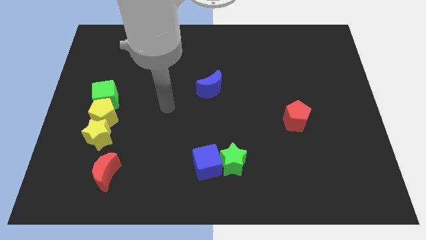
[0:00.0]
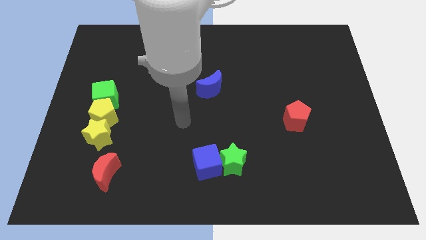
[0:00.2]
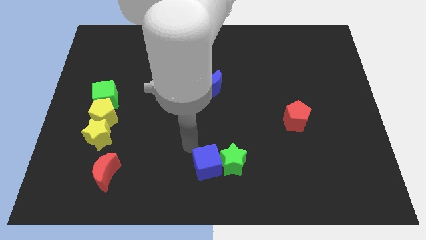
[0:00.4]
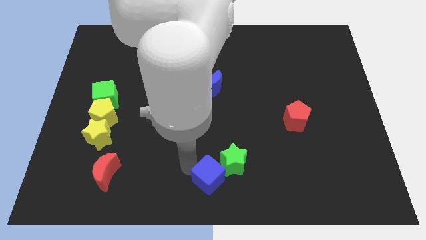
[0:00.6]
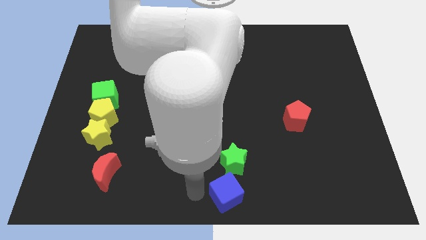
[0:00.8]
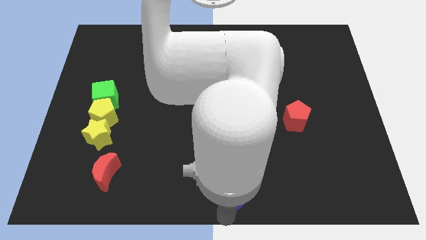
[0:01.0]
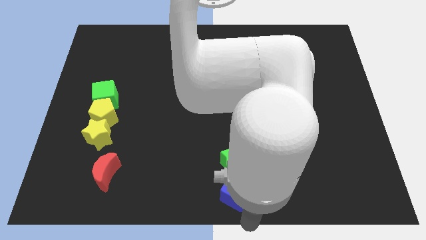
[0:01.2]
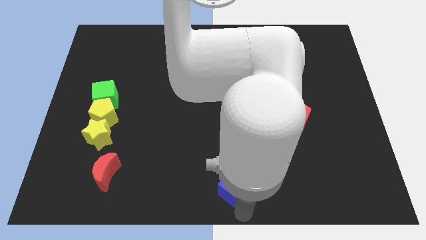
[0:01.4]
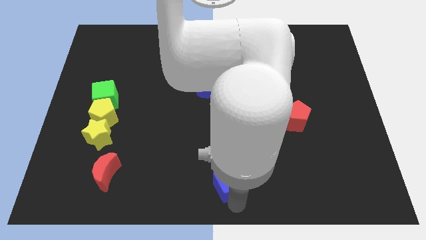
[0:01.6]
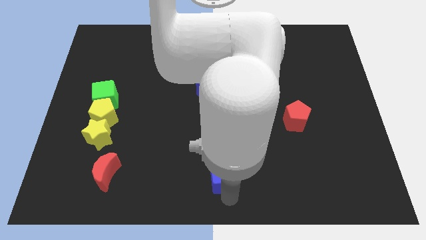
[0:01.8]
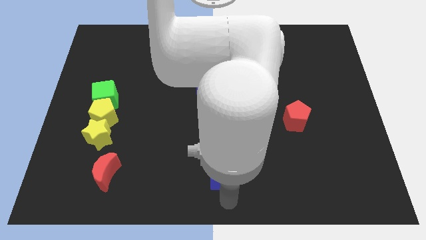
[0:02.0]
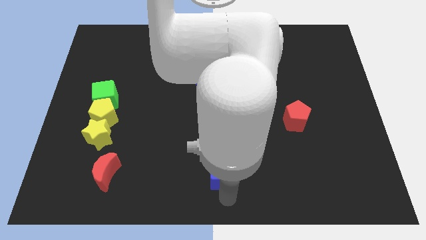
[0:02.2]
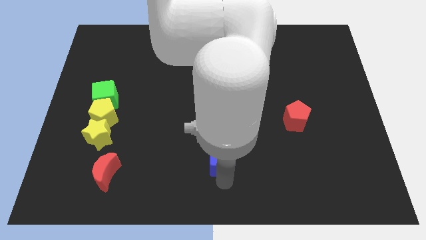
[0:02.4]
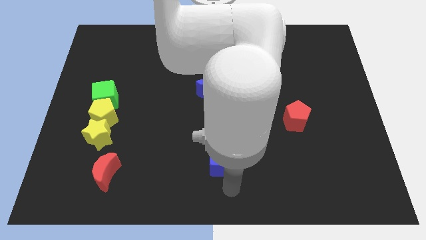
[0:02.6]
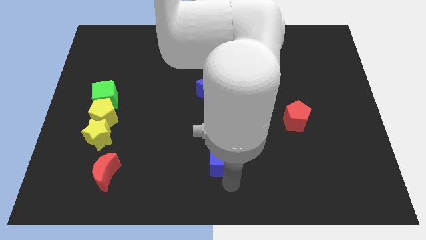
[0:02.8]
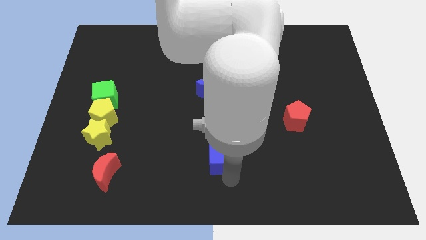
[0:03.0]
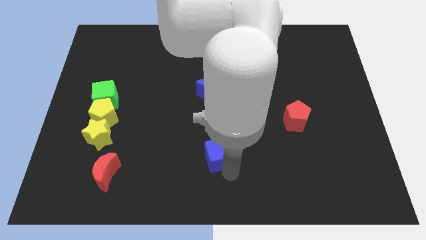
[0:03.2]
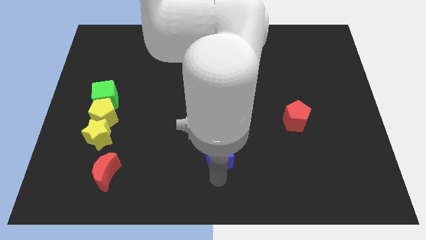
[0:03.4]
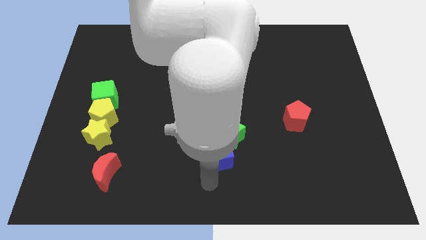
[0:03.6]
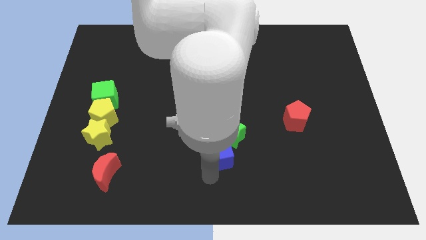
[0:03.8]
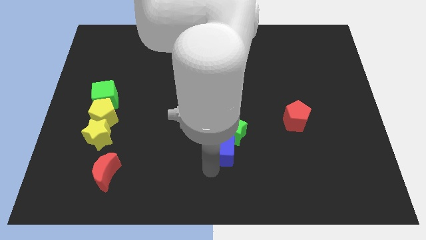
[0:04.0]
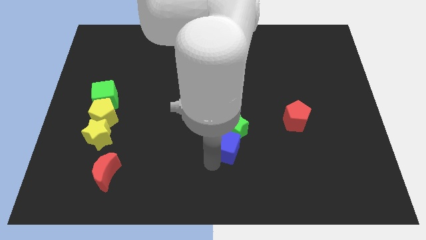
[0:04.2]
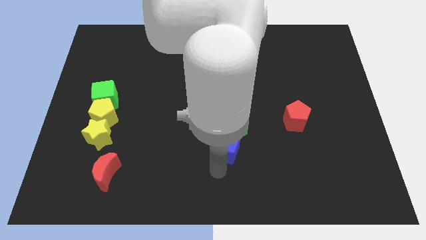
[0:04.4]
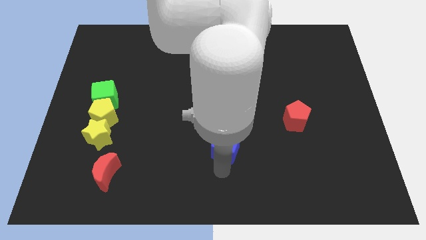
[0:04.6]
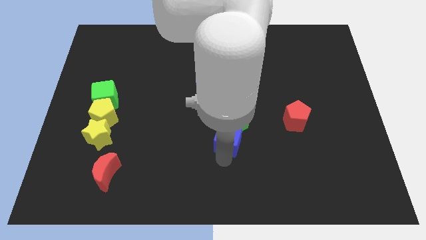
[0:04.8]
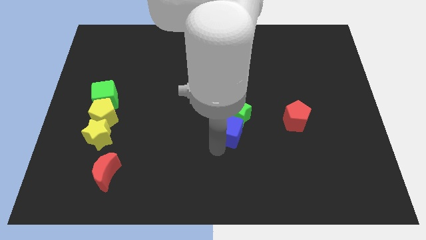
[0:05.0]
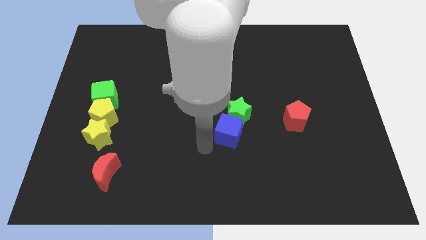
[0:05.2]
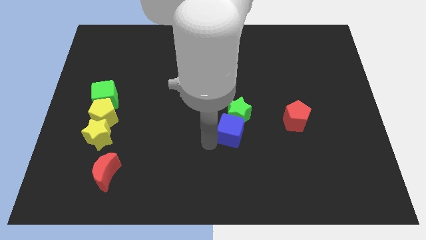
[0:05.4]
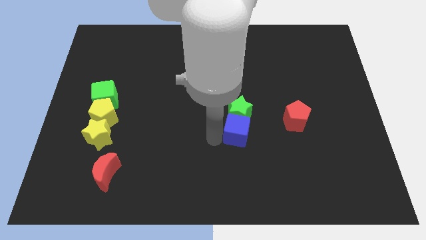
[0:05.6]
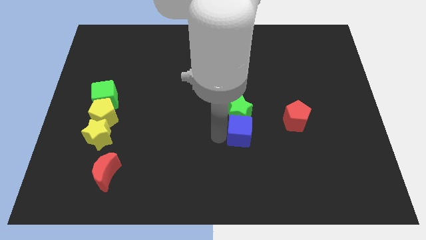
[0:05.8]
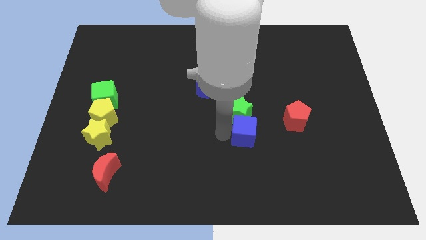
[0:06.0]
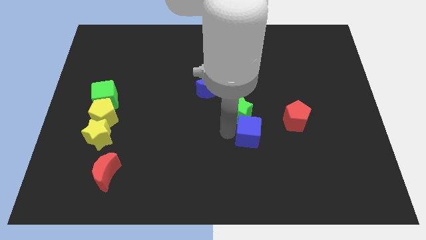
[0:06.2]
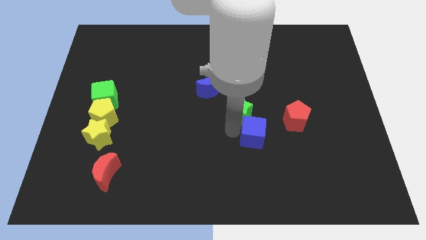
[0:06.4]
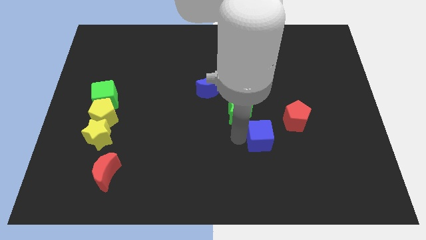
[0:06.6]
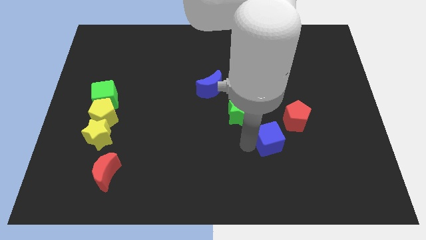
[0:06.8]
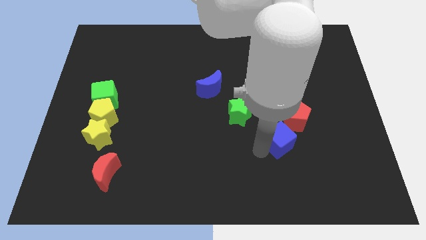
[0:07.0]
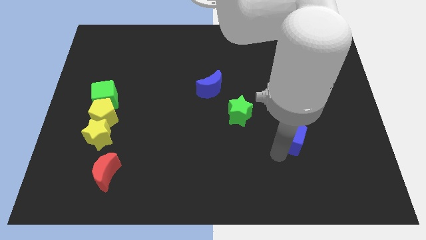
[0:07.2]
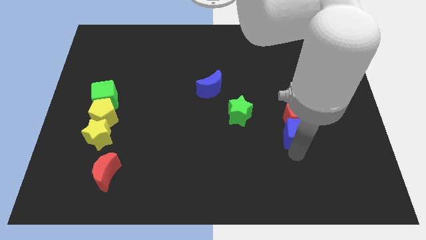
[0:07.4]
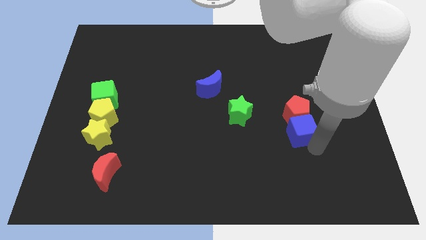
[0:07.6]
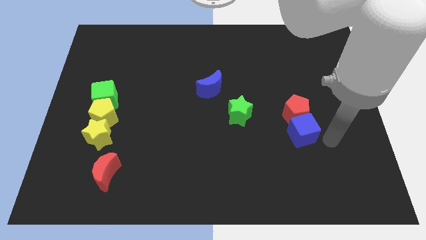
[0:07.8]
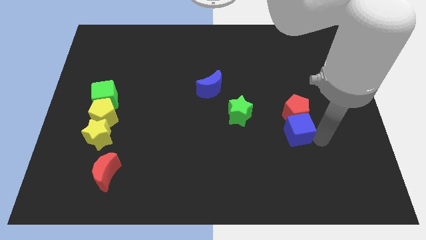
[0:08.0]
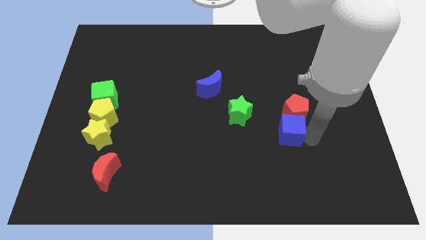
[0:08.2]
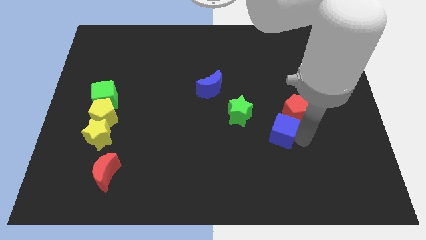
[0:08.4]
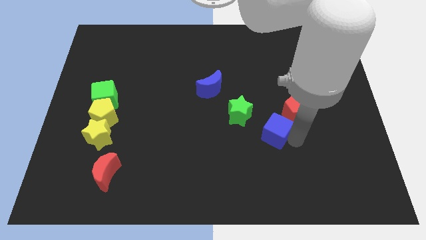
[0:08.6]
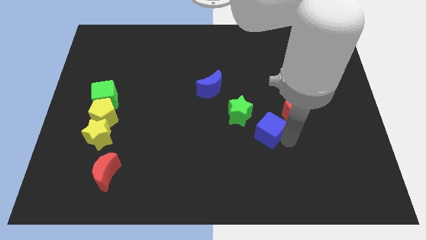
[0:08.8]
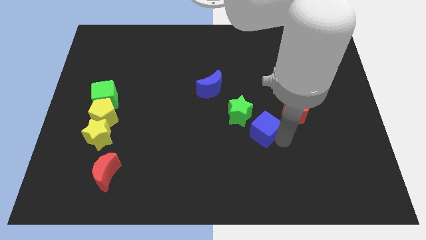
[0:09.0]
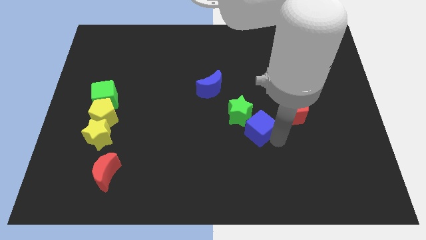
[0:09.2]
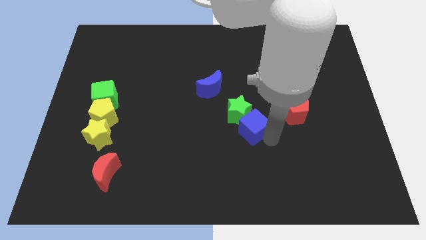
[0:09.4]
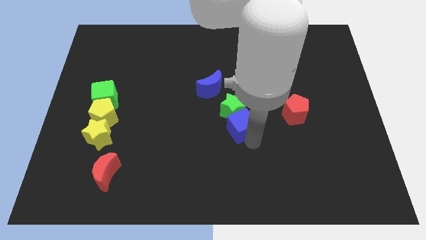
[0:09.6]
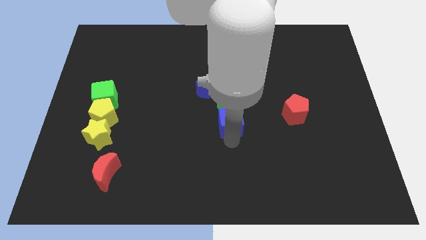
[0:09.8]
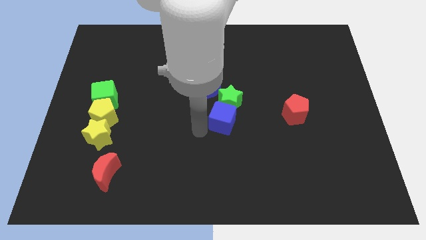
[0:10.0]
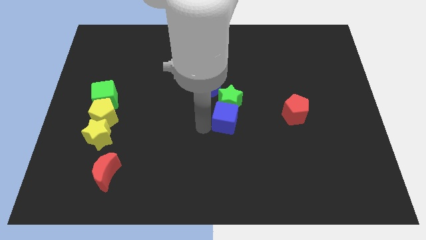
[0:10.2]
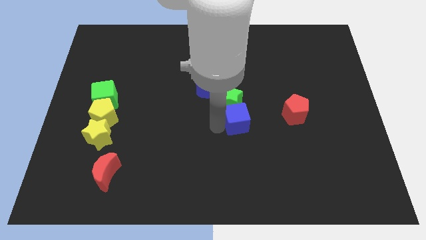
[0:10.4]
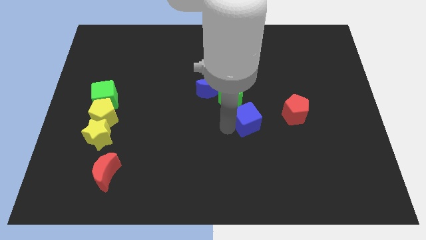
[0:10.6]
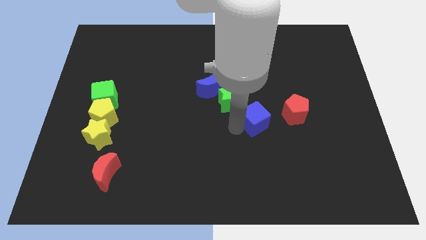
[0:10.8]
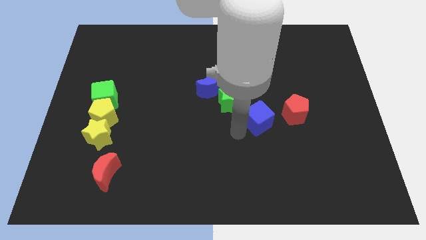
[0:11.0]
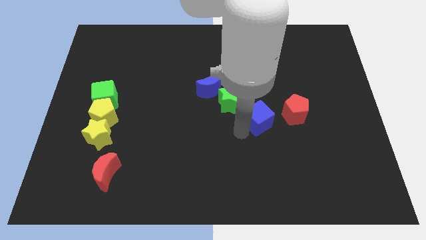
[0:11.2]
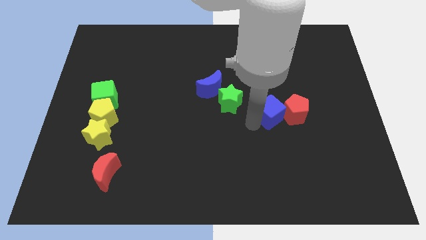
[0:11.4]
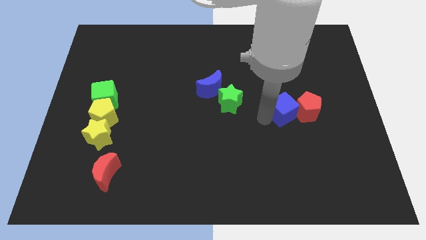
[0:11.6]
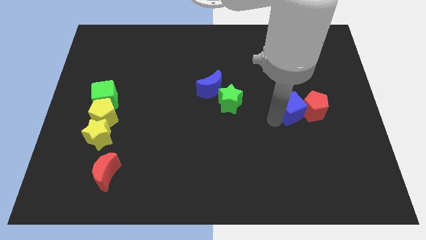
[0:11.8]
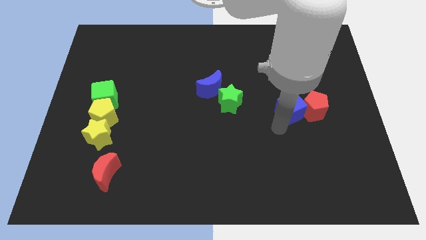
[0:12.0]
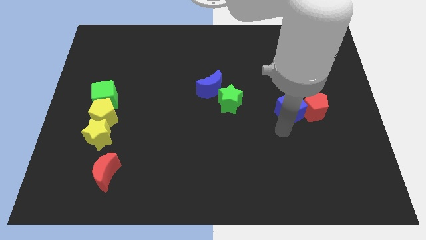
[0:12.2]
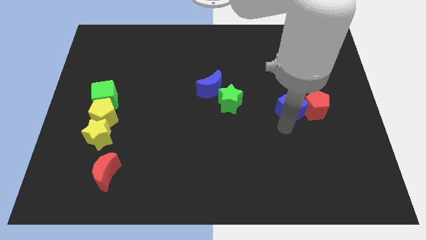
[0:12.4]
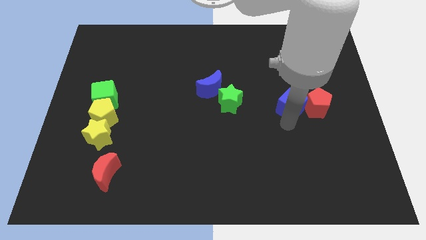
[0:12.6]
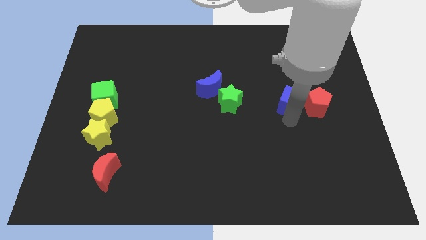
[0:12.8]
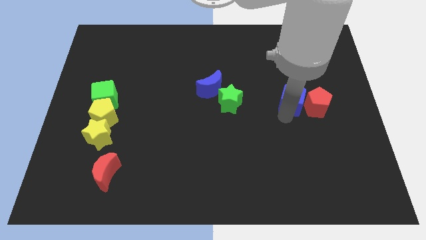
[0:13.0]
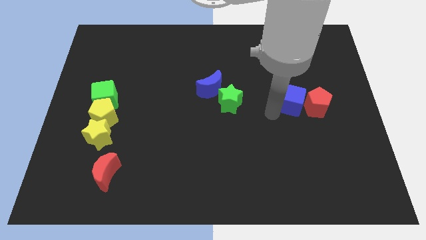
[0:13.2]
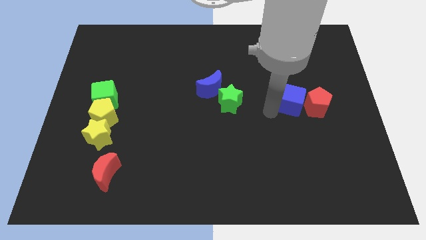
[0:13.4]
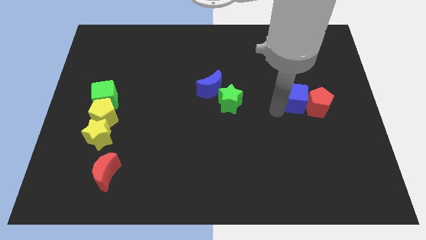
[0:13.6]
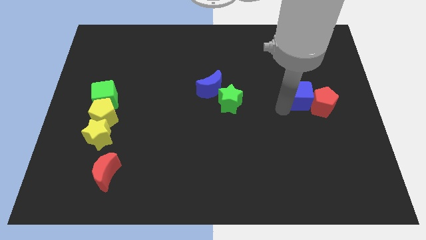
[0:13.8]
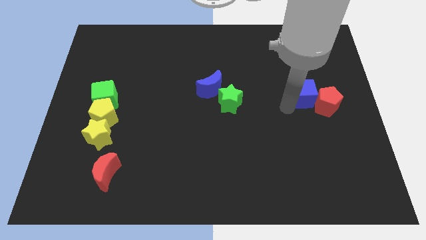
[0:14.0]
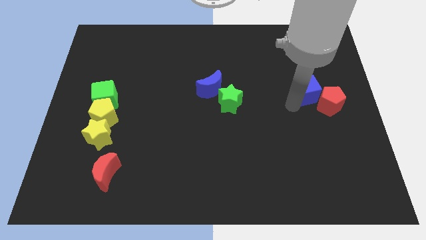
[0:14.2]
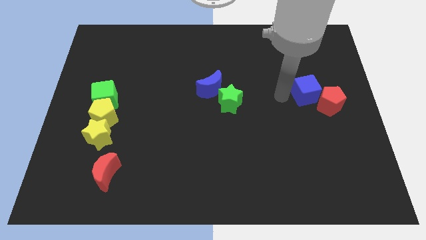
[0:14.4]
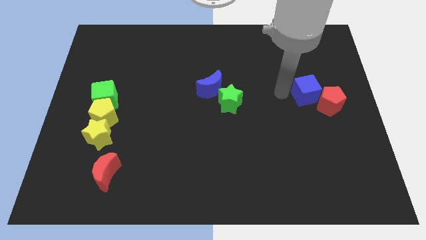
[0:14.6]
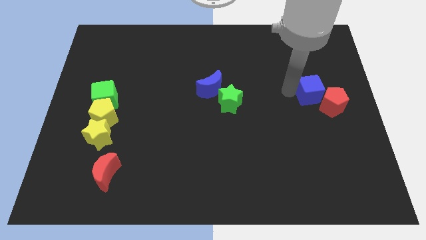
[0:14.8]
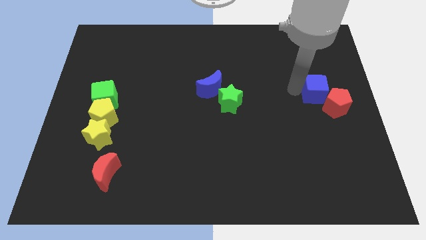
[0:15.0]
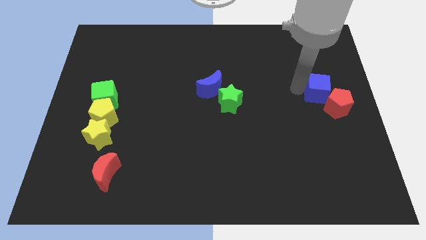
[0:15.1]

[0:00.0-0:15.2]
slide the blue cube to the right side of the board
